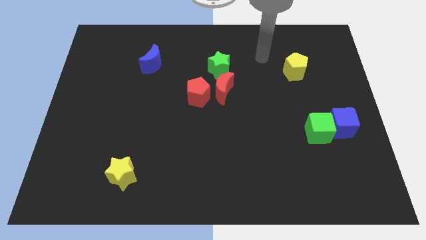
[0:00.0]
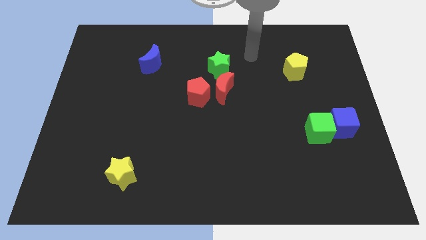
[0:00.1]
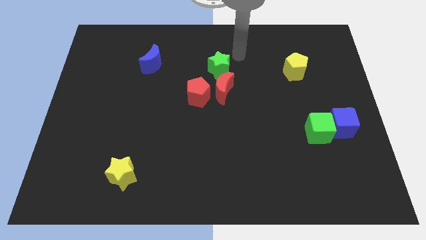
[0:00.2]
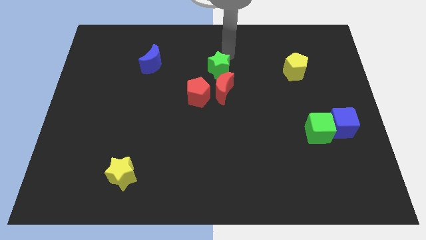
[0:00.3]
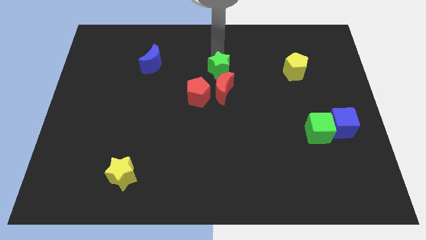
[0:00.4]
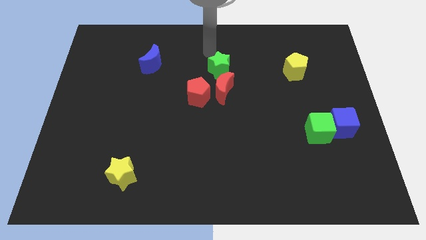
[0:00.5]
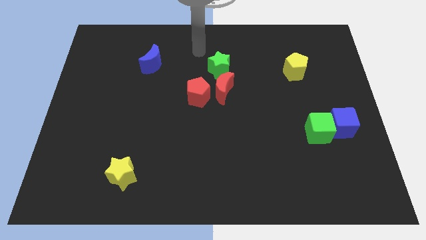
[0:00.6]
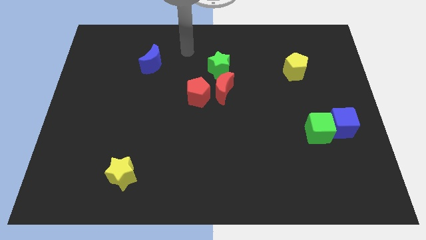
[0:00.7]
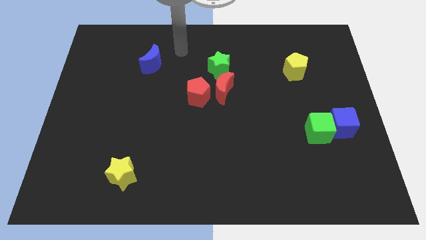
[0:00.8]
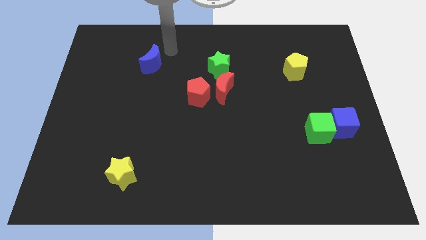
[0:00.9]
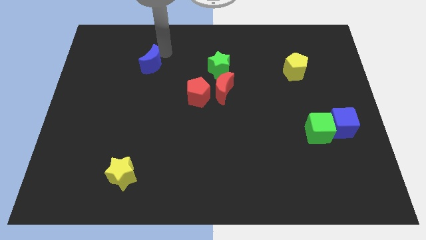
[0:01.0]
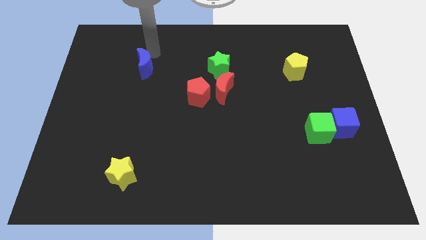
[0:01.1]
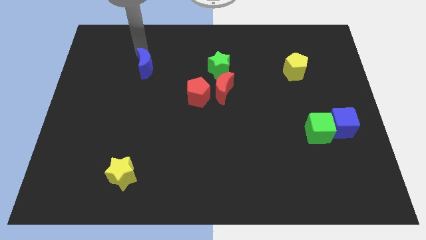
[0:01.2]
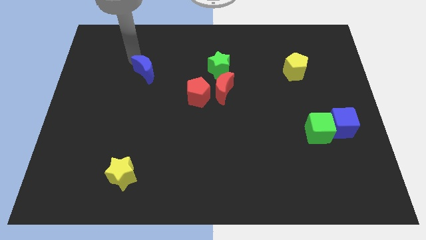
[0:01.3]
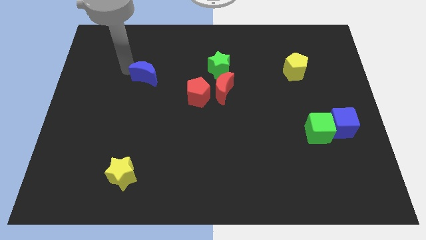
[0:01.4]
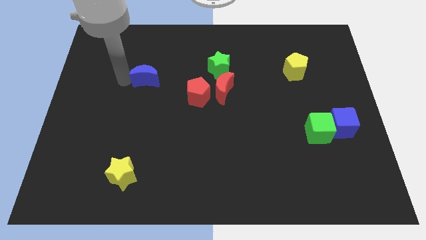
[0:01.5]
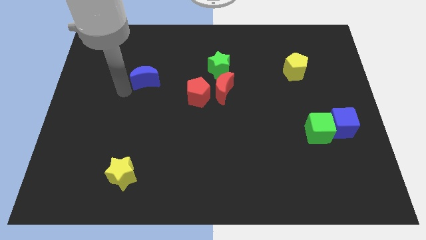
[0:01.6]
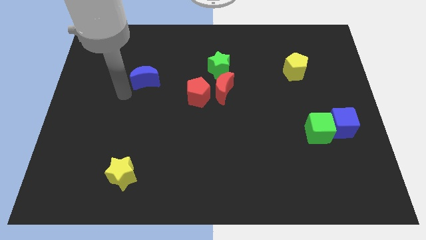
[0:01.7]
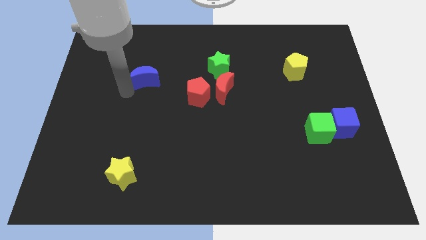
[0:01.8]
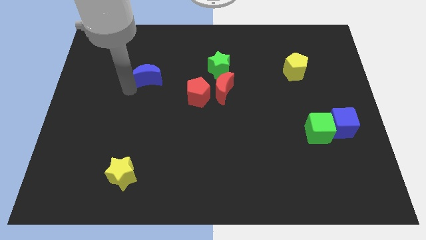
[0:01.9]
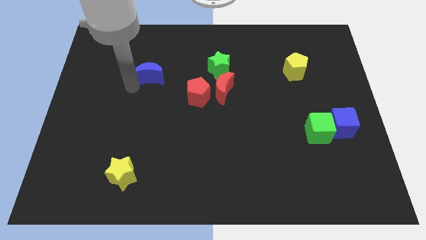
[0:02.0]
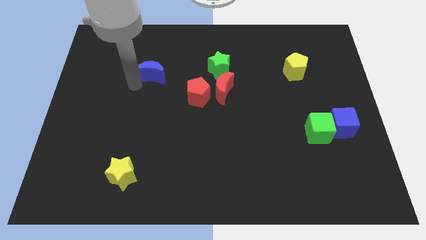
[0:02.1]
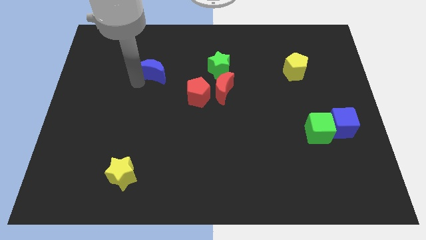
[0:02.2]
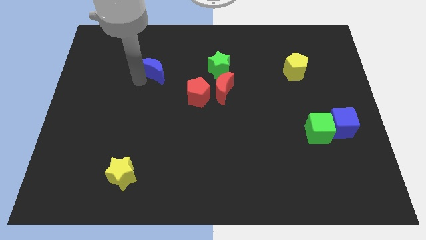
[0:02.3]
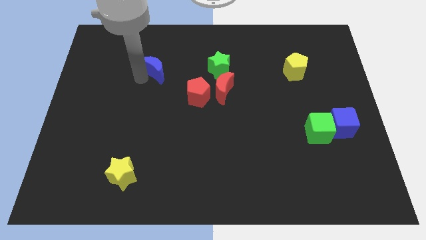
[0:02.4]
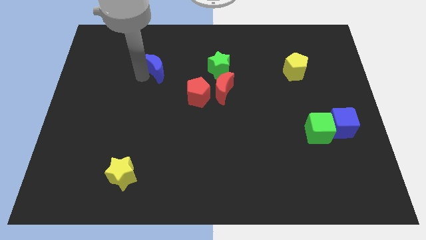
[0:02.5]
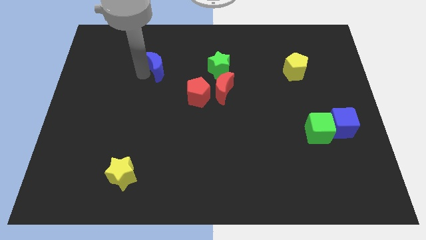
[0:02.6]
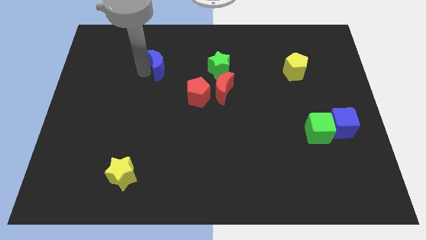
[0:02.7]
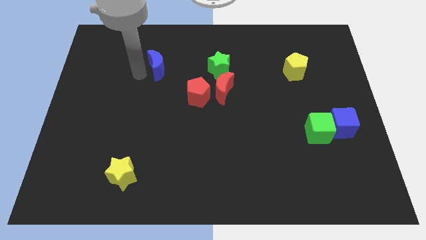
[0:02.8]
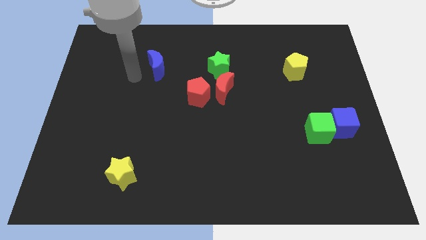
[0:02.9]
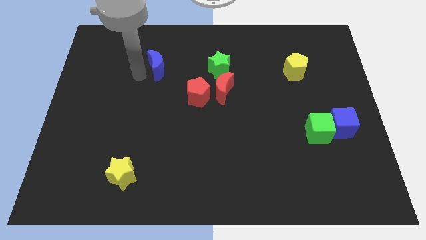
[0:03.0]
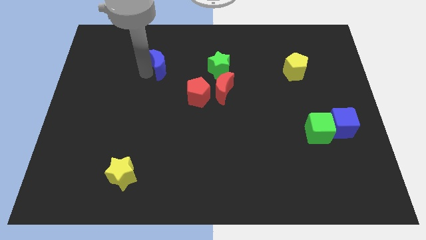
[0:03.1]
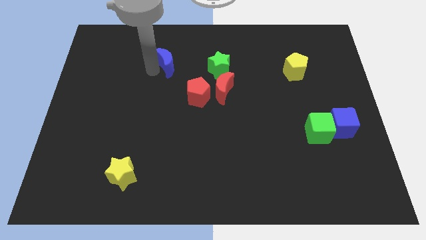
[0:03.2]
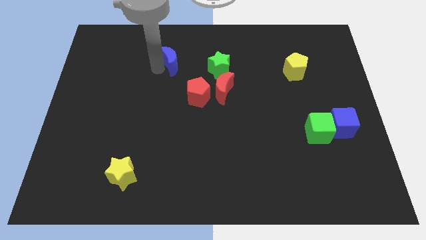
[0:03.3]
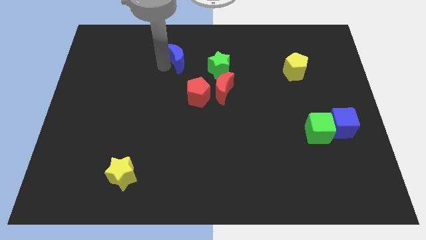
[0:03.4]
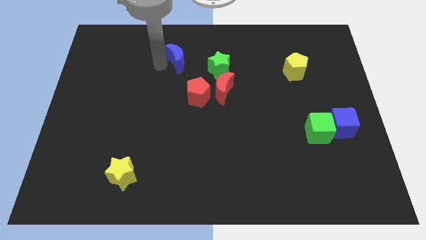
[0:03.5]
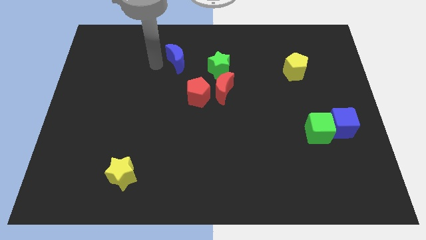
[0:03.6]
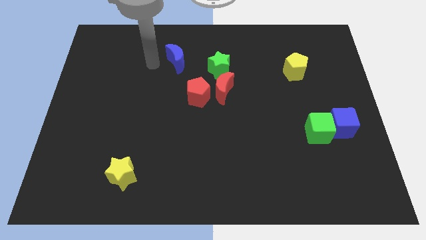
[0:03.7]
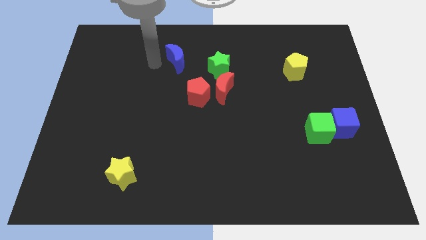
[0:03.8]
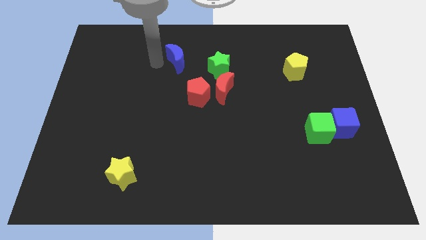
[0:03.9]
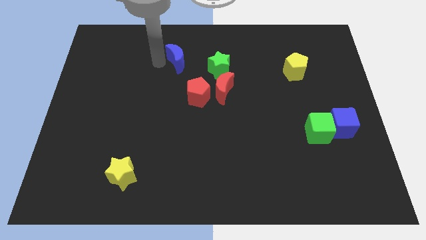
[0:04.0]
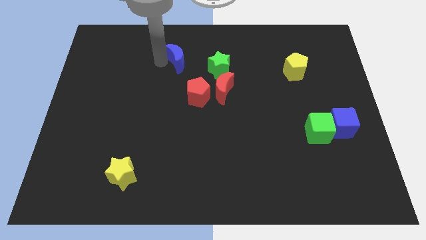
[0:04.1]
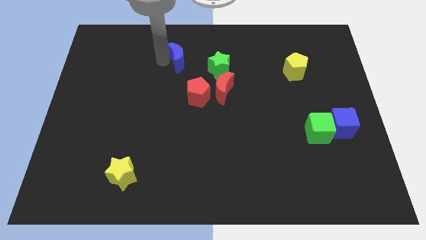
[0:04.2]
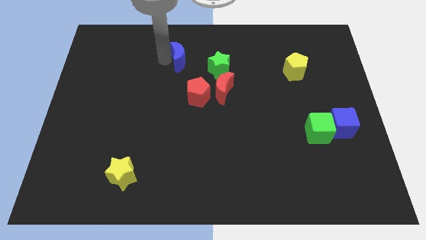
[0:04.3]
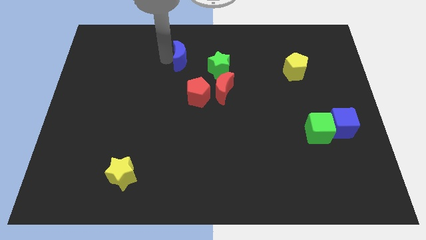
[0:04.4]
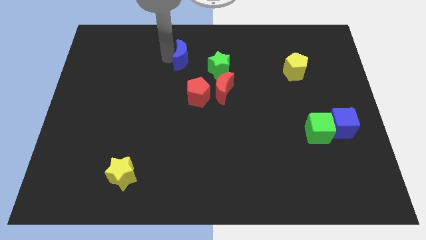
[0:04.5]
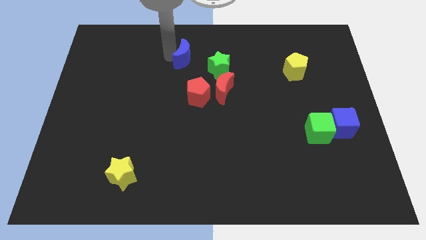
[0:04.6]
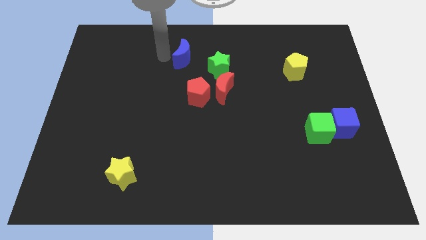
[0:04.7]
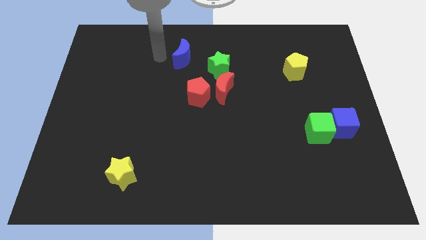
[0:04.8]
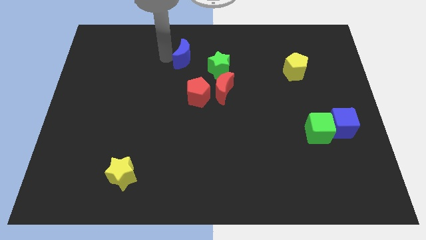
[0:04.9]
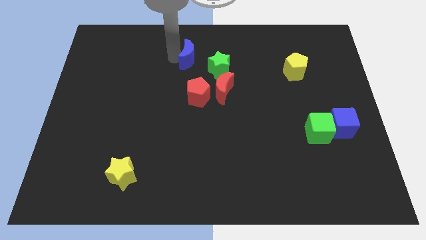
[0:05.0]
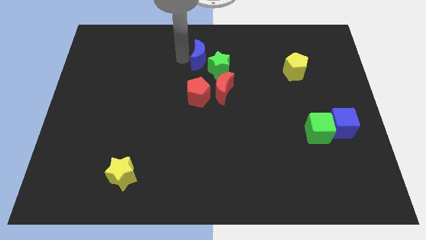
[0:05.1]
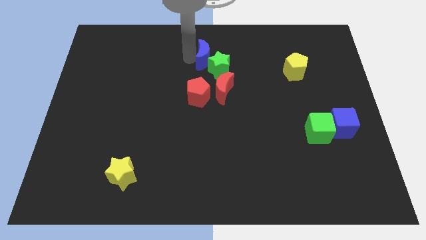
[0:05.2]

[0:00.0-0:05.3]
push the blue moon above the red moon

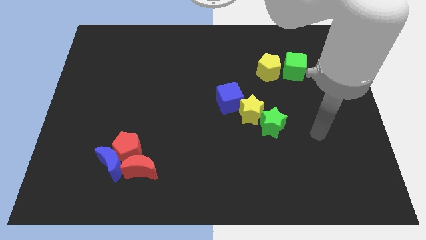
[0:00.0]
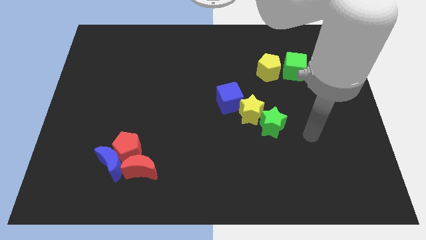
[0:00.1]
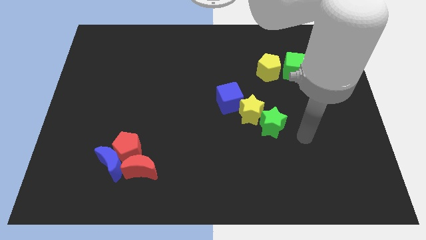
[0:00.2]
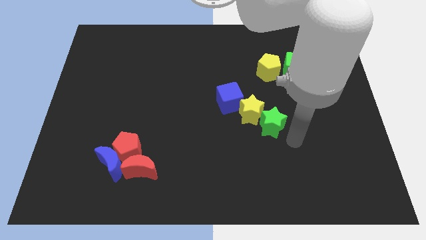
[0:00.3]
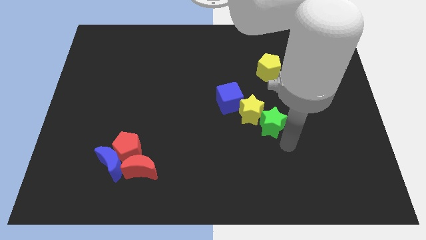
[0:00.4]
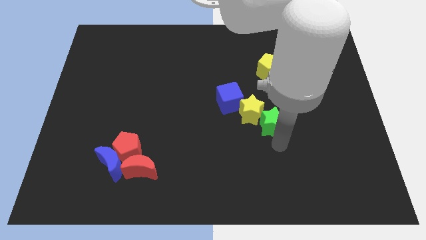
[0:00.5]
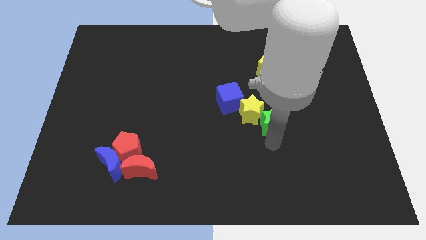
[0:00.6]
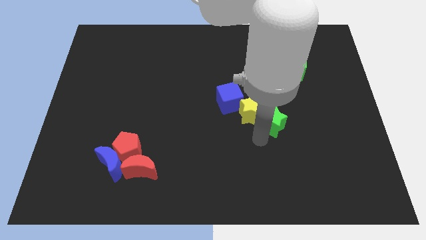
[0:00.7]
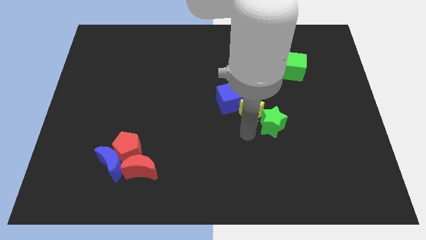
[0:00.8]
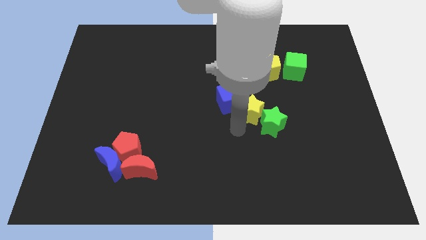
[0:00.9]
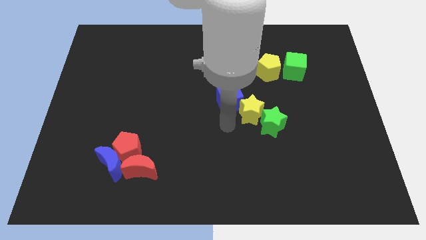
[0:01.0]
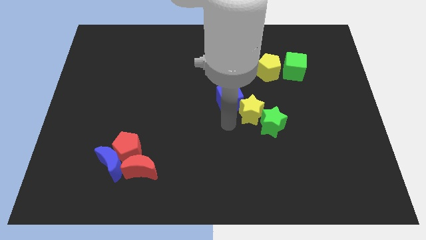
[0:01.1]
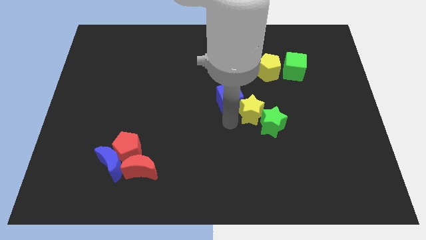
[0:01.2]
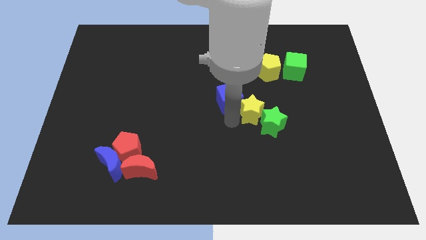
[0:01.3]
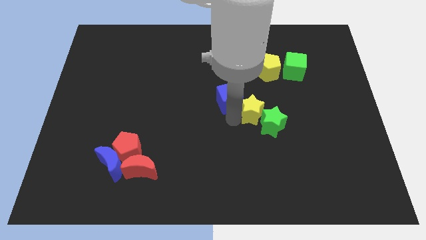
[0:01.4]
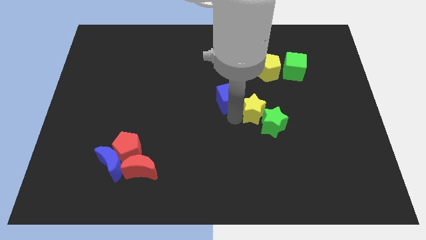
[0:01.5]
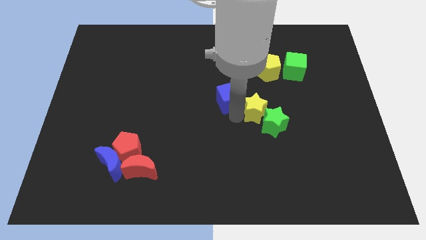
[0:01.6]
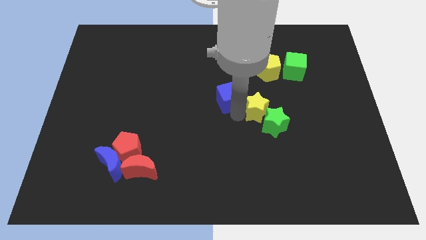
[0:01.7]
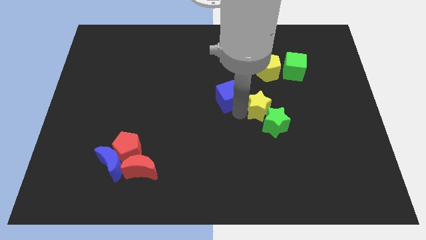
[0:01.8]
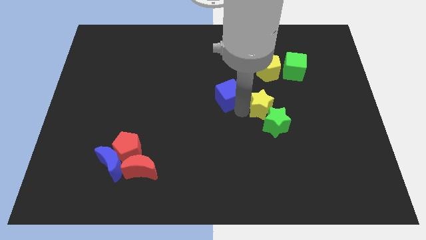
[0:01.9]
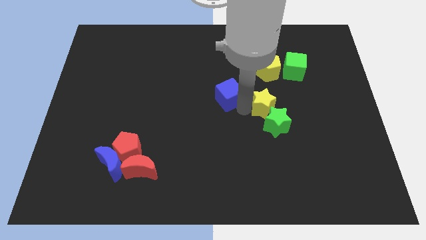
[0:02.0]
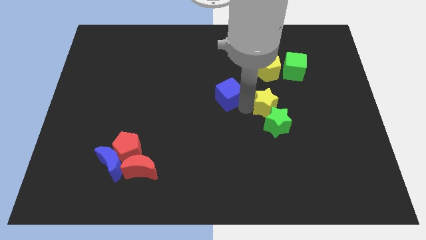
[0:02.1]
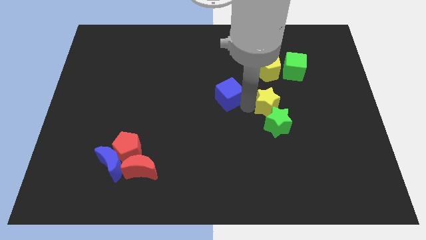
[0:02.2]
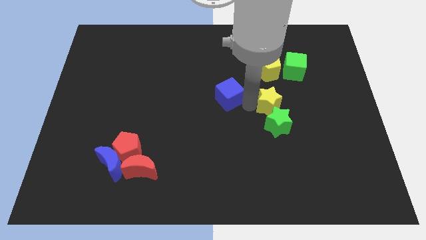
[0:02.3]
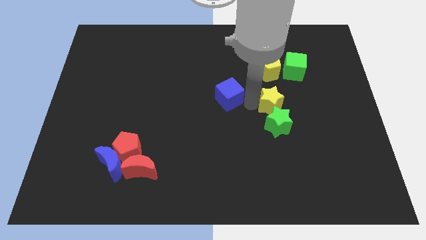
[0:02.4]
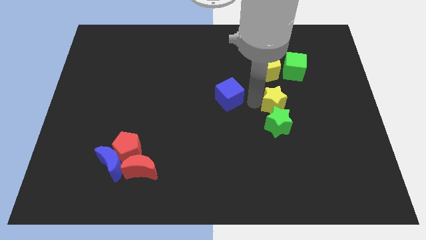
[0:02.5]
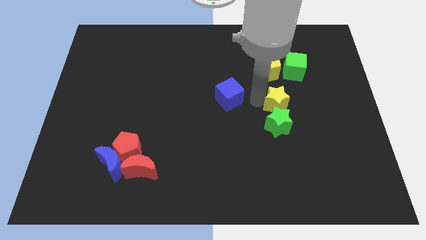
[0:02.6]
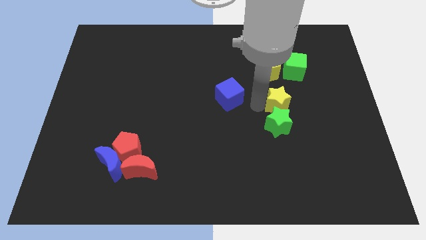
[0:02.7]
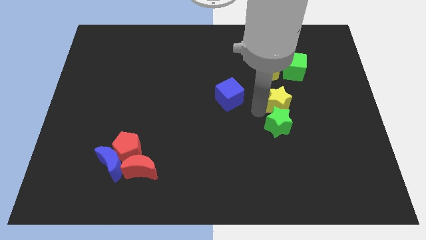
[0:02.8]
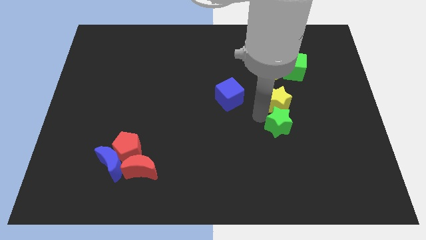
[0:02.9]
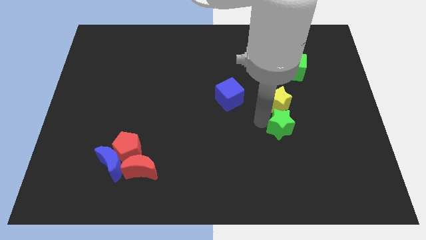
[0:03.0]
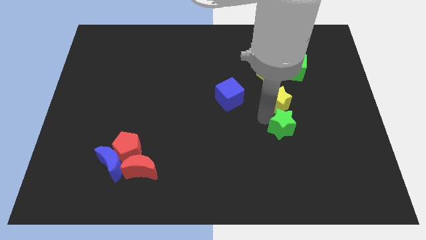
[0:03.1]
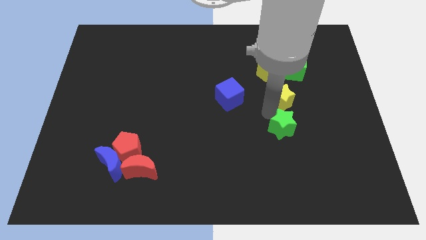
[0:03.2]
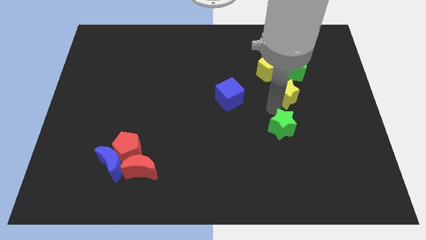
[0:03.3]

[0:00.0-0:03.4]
put the yellow star to the bottom right side of the yellow pentagon
